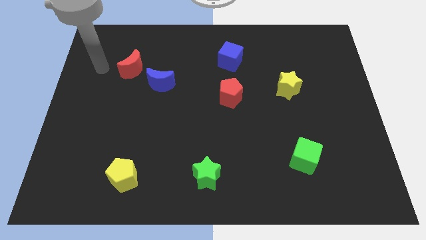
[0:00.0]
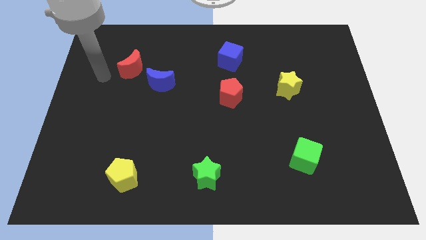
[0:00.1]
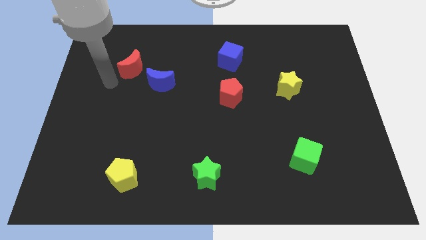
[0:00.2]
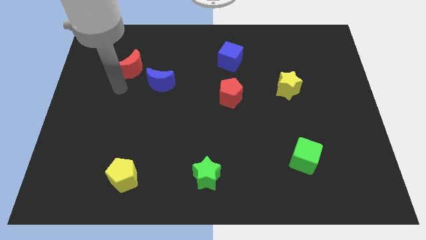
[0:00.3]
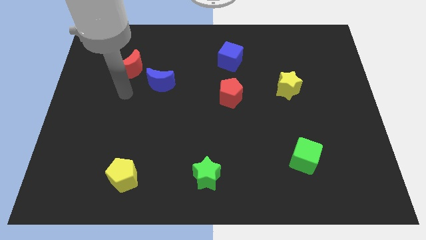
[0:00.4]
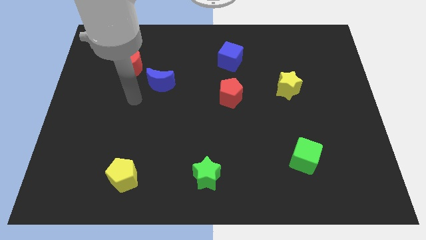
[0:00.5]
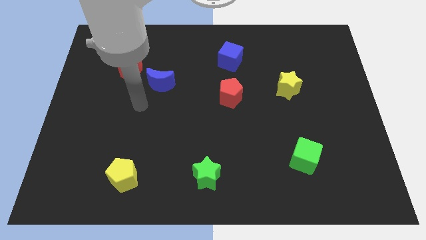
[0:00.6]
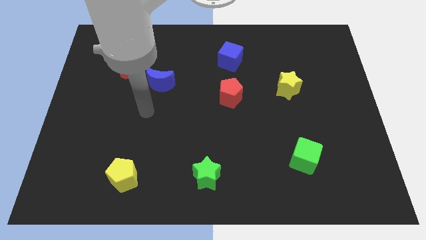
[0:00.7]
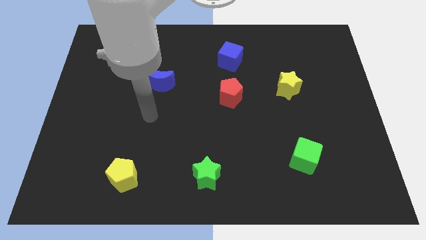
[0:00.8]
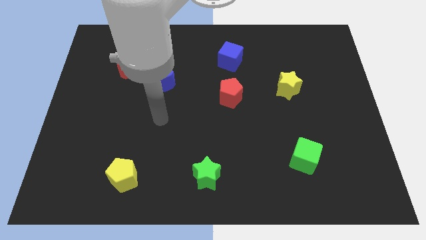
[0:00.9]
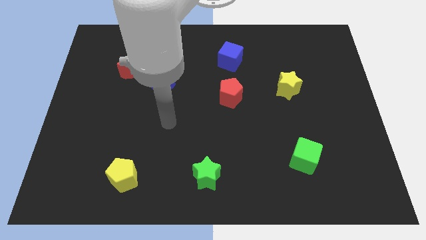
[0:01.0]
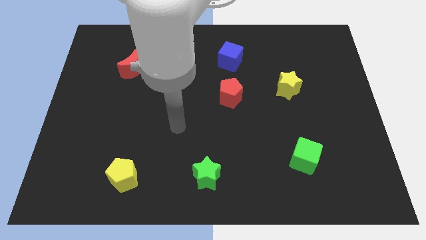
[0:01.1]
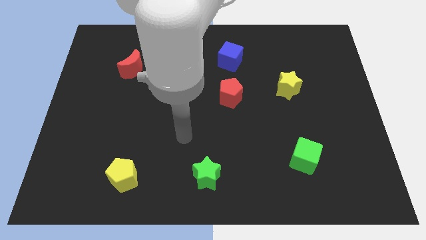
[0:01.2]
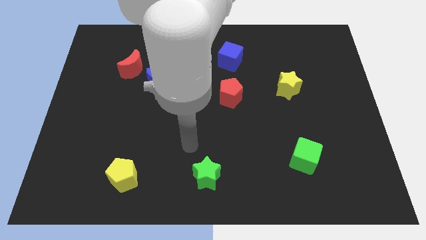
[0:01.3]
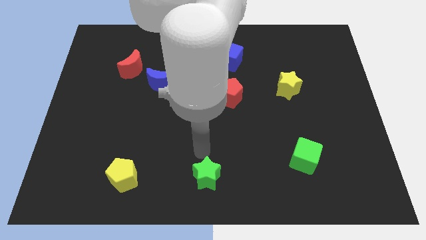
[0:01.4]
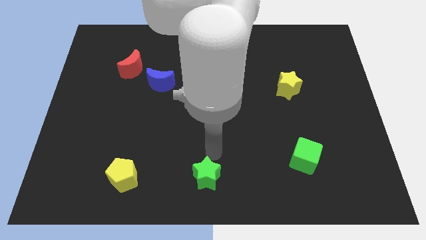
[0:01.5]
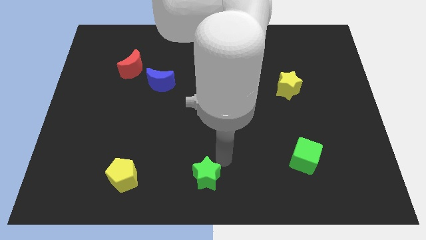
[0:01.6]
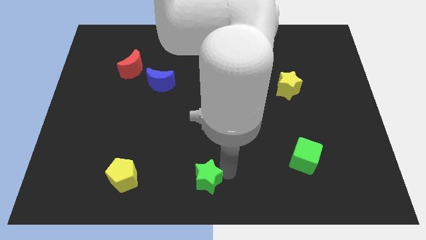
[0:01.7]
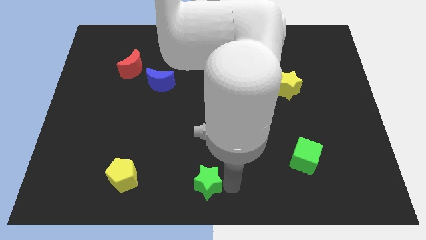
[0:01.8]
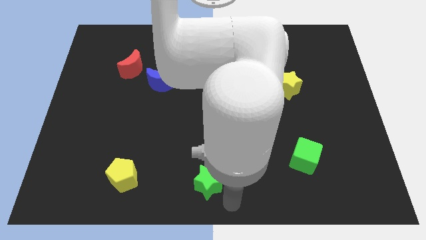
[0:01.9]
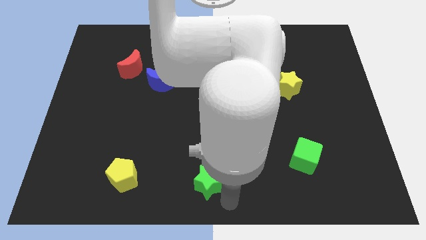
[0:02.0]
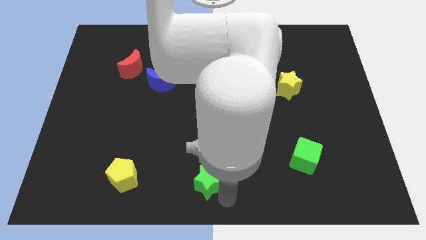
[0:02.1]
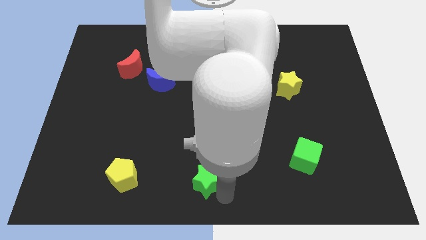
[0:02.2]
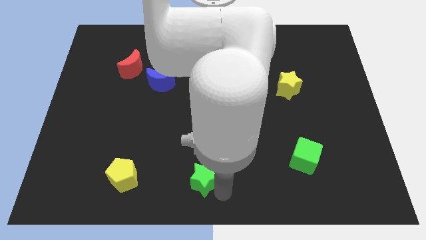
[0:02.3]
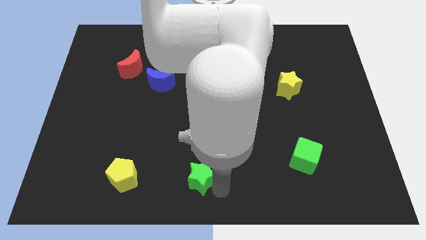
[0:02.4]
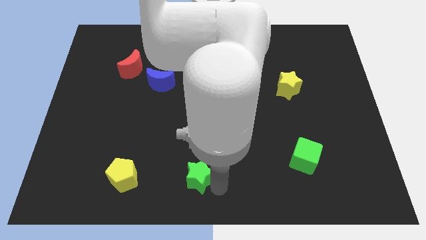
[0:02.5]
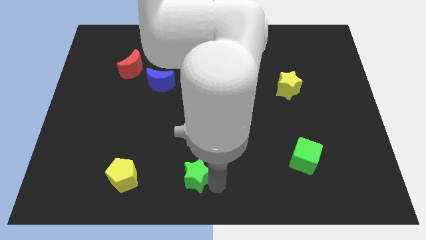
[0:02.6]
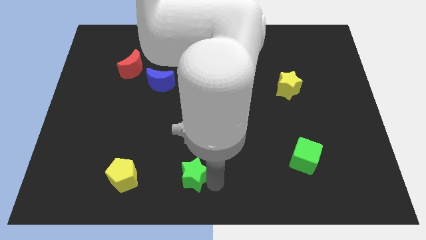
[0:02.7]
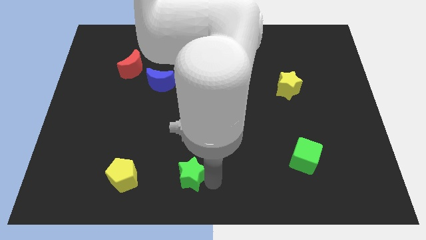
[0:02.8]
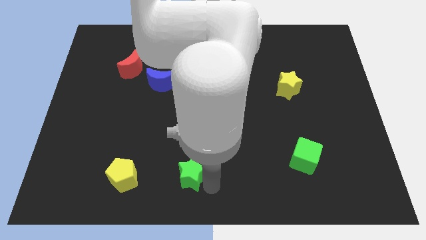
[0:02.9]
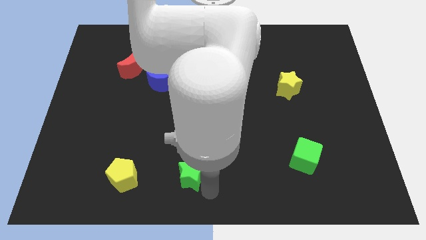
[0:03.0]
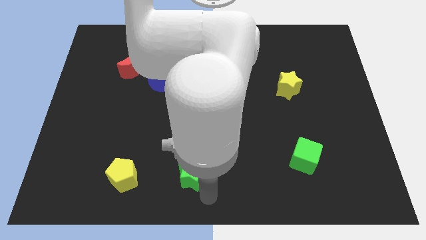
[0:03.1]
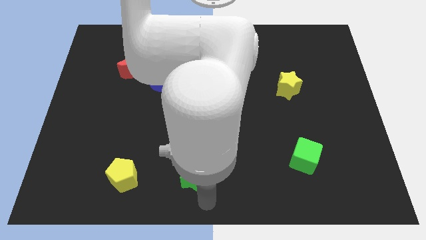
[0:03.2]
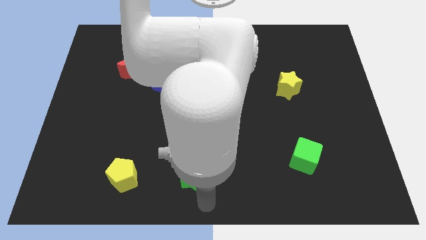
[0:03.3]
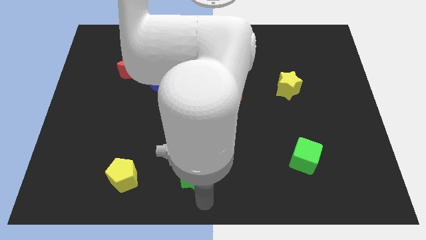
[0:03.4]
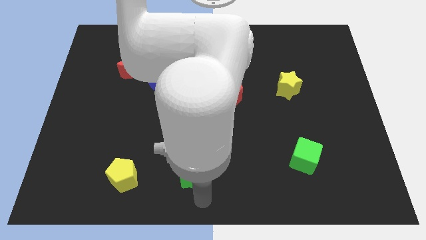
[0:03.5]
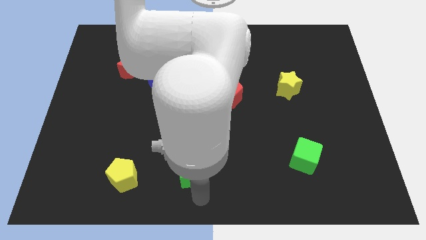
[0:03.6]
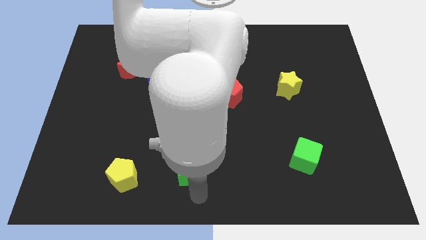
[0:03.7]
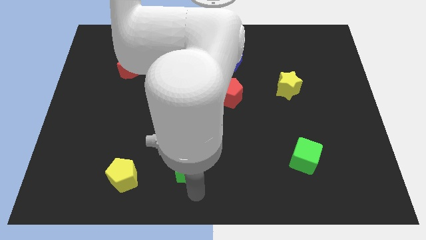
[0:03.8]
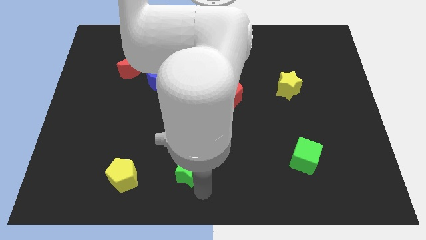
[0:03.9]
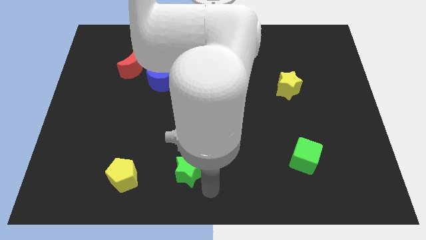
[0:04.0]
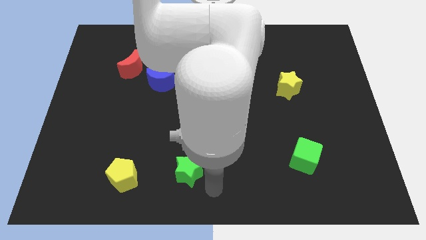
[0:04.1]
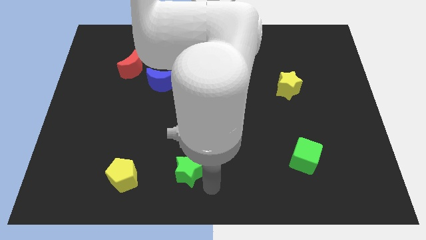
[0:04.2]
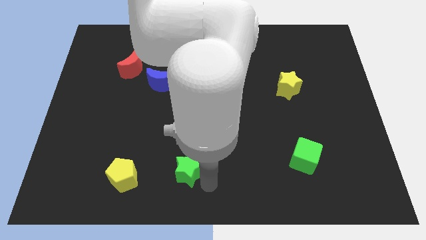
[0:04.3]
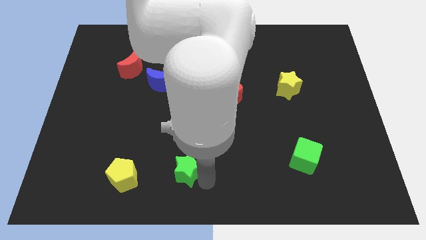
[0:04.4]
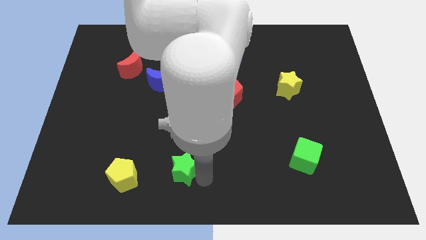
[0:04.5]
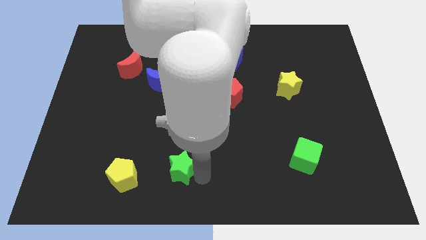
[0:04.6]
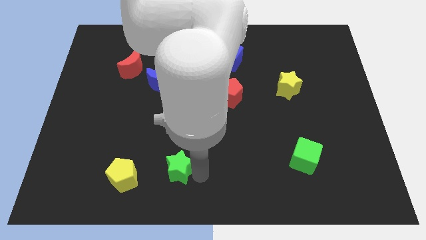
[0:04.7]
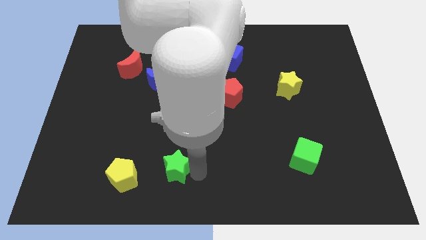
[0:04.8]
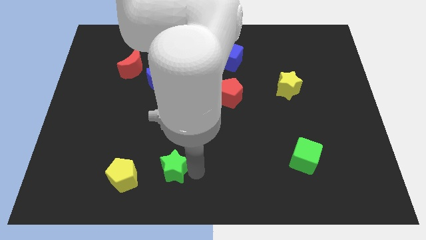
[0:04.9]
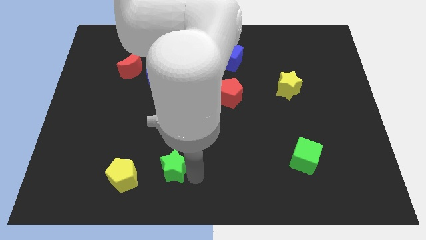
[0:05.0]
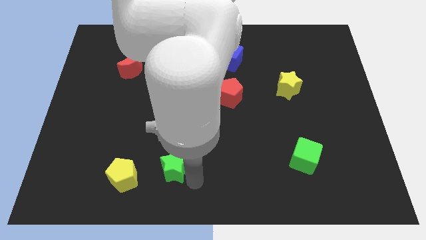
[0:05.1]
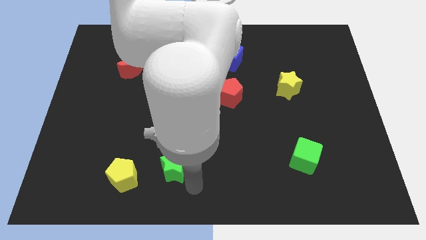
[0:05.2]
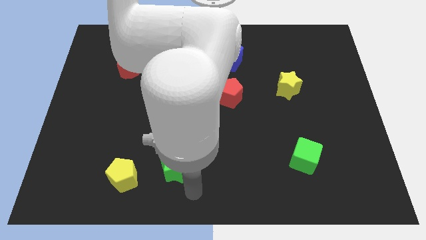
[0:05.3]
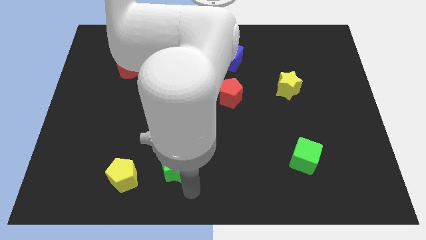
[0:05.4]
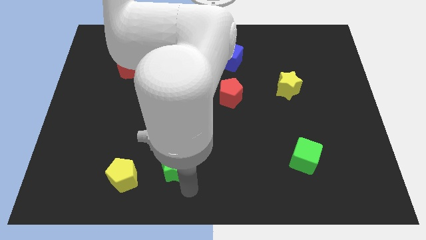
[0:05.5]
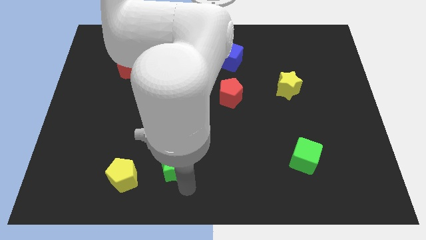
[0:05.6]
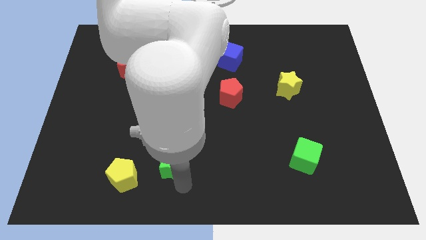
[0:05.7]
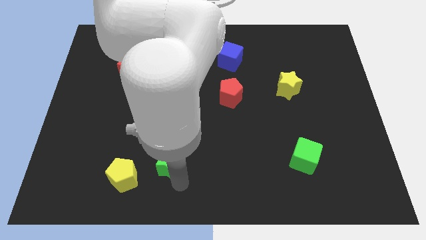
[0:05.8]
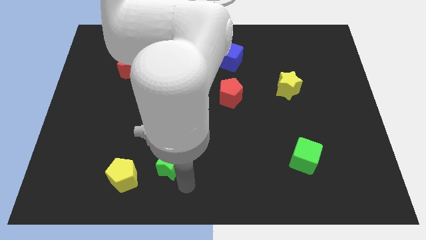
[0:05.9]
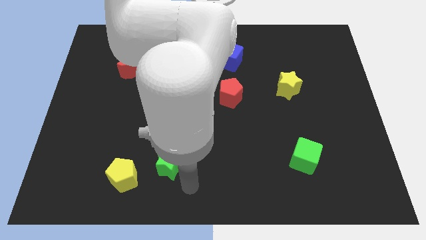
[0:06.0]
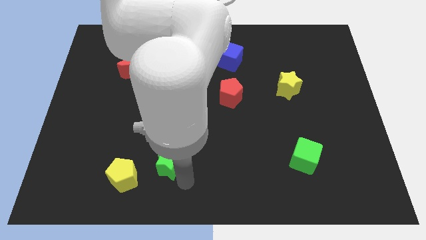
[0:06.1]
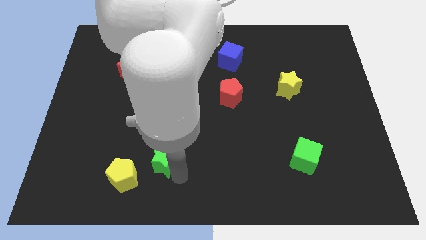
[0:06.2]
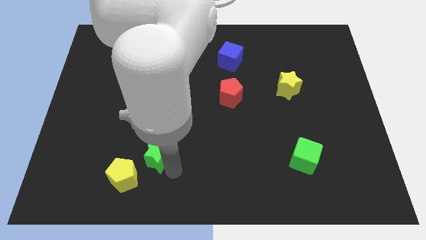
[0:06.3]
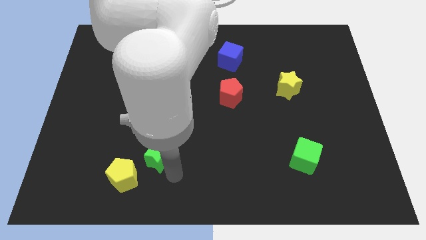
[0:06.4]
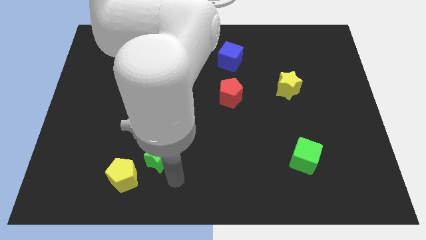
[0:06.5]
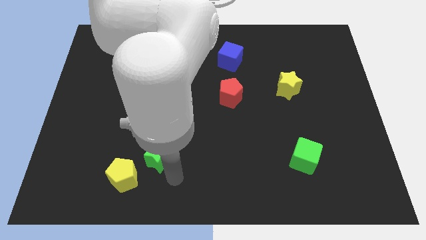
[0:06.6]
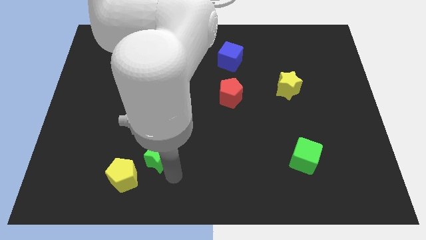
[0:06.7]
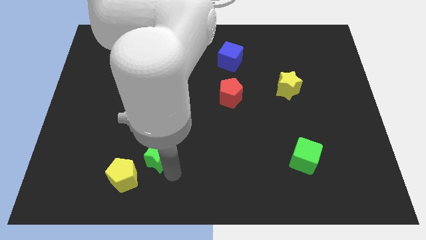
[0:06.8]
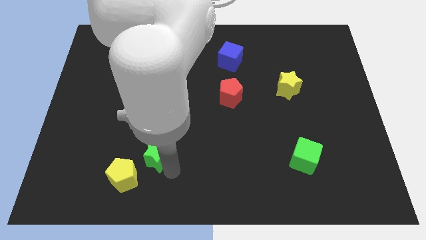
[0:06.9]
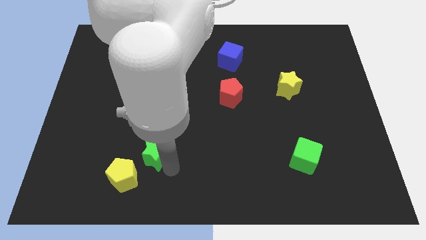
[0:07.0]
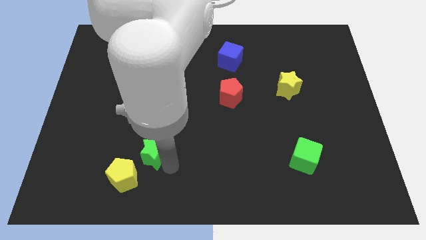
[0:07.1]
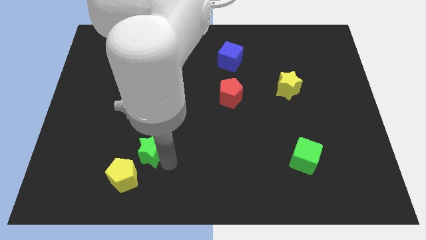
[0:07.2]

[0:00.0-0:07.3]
slide the green star above the yellow pentagon
